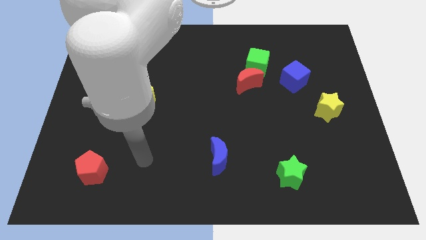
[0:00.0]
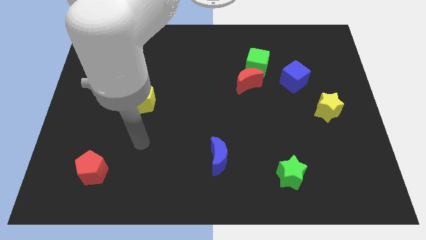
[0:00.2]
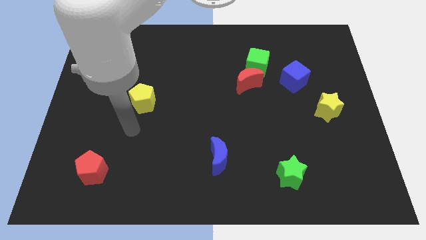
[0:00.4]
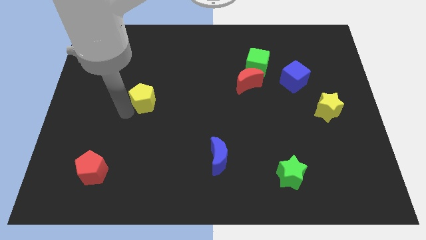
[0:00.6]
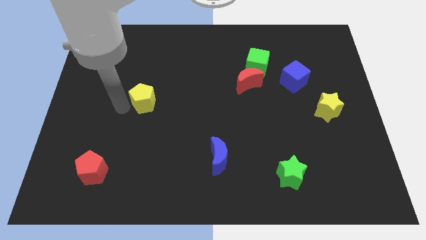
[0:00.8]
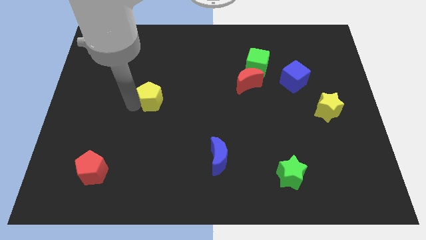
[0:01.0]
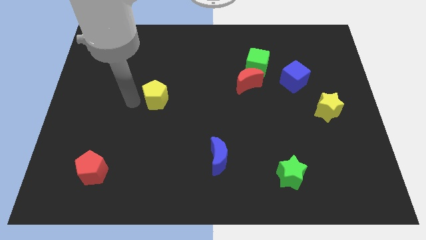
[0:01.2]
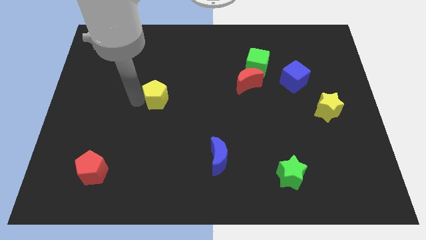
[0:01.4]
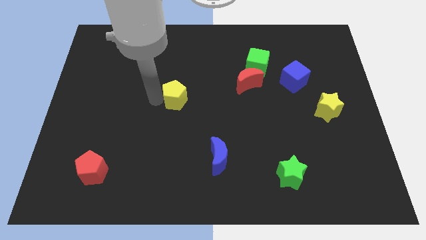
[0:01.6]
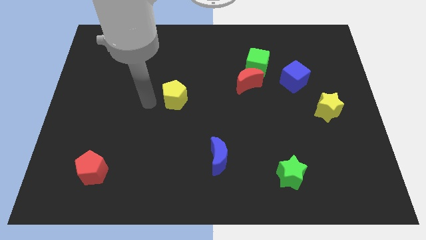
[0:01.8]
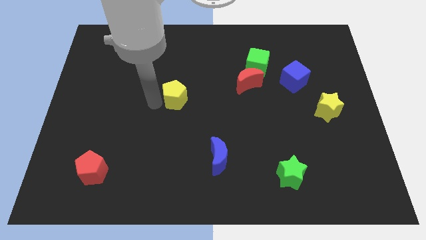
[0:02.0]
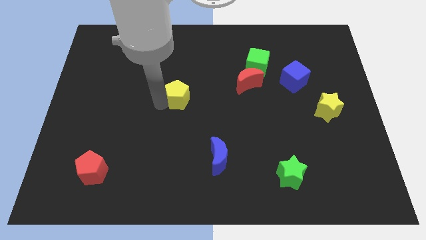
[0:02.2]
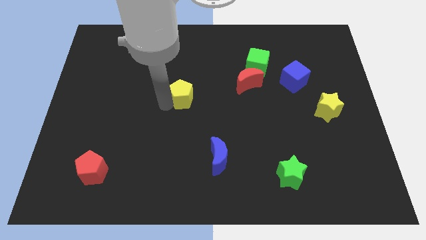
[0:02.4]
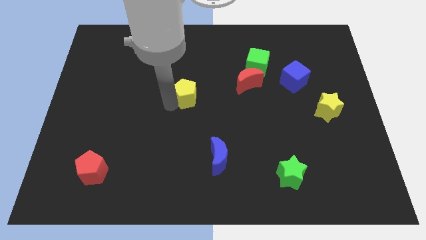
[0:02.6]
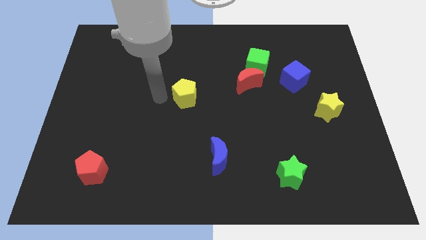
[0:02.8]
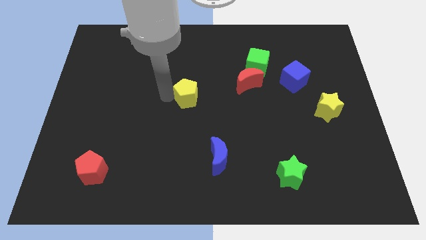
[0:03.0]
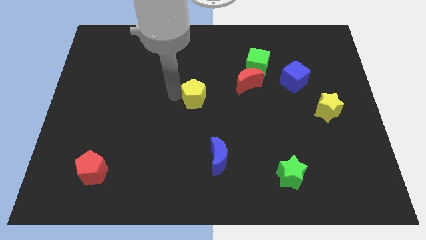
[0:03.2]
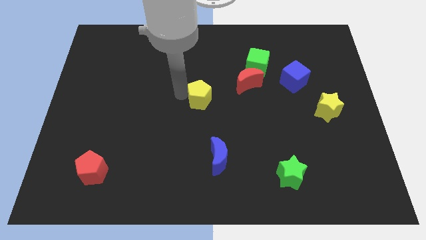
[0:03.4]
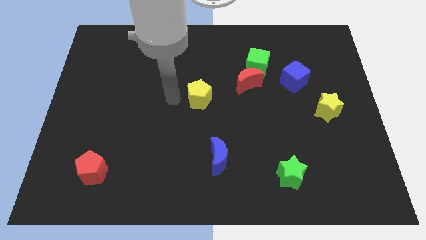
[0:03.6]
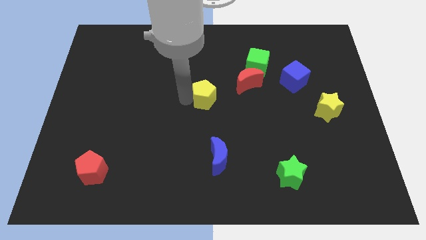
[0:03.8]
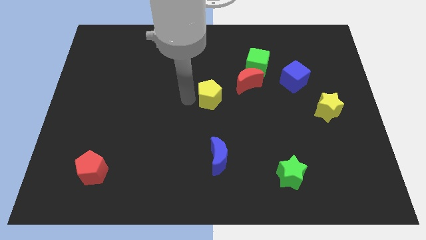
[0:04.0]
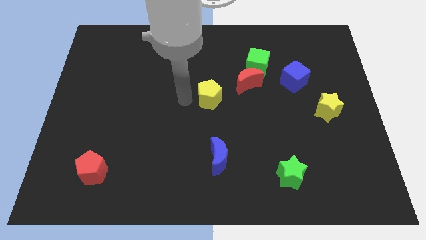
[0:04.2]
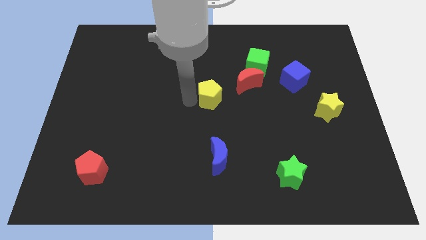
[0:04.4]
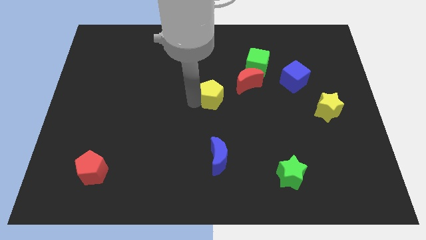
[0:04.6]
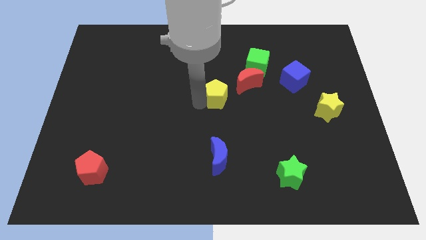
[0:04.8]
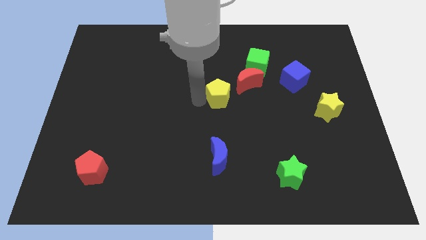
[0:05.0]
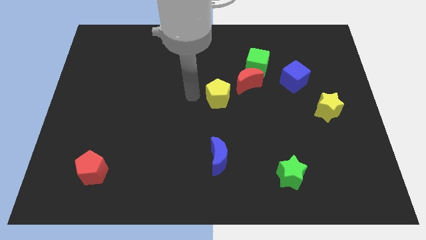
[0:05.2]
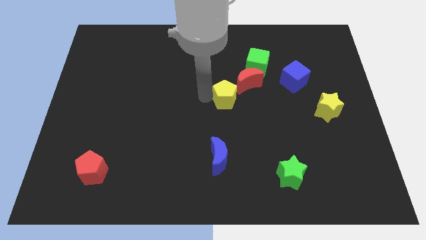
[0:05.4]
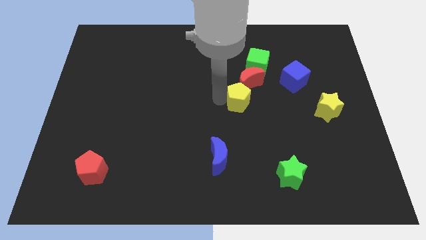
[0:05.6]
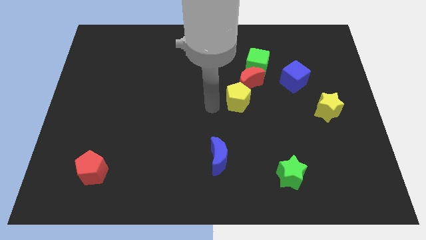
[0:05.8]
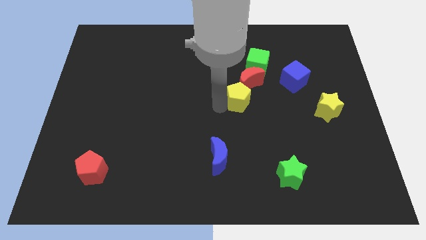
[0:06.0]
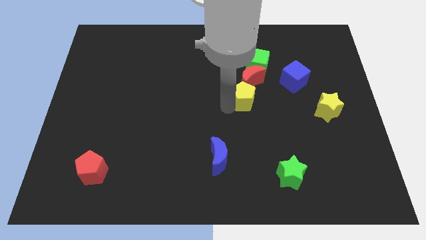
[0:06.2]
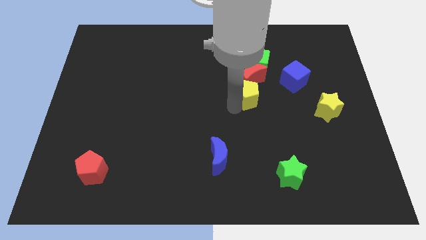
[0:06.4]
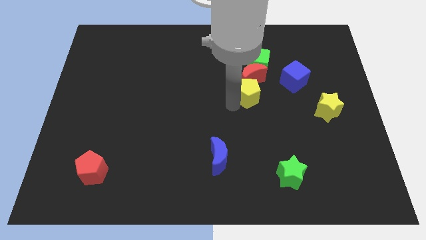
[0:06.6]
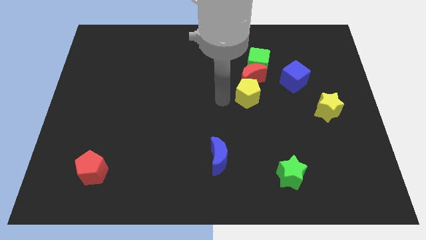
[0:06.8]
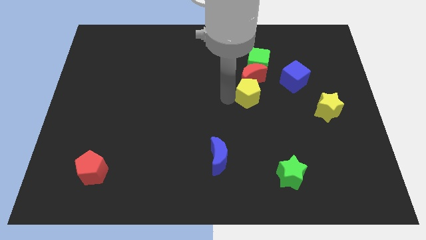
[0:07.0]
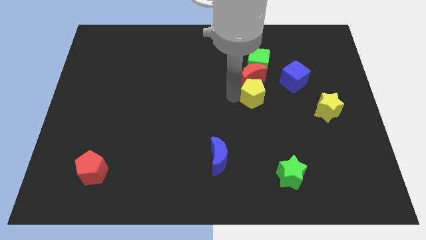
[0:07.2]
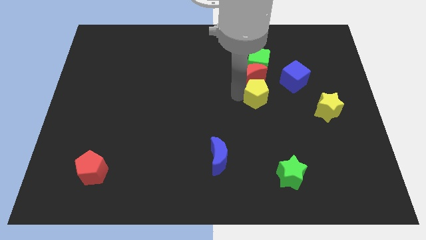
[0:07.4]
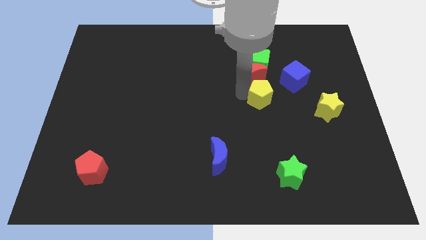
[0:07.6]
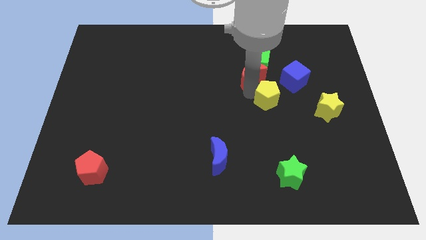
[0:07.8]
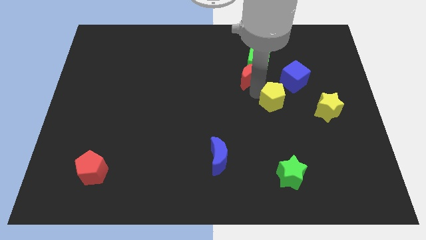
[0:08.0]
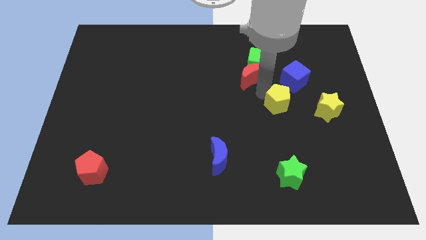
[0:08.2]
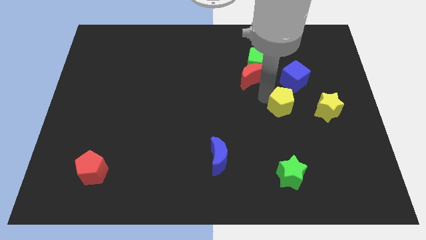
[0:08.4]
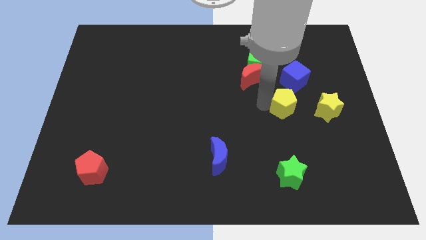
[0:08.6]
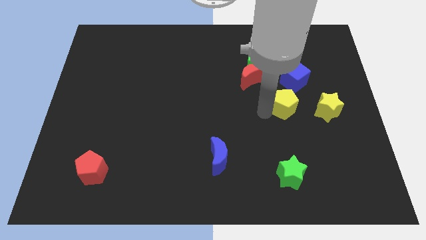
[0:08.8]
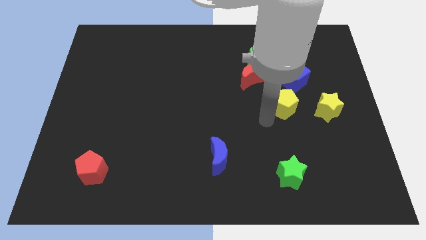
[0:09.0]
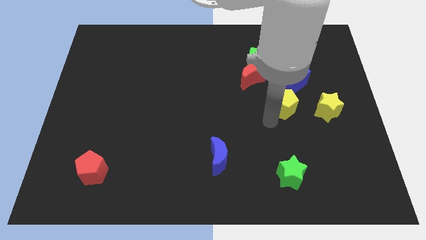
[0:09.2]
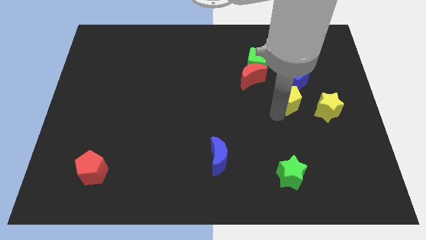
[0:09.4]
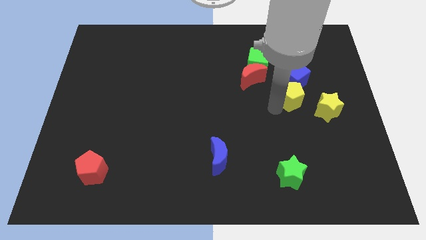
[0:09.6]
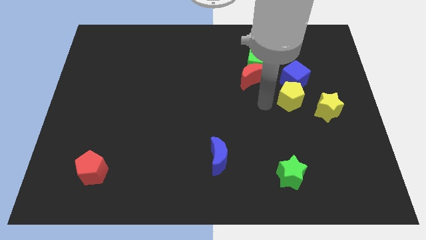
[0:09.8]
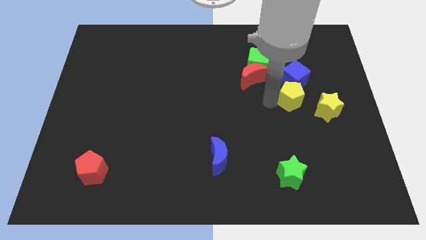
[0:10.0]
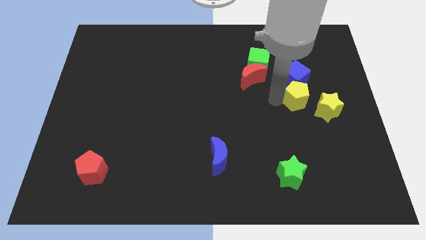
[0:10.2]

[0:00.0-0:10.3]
move the yellow pentagon to the bottom right of the blue cube
